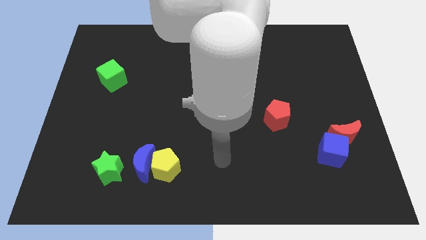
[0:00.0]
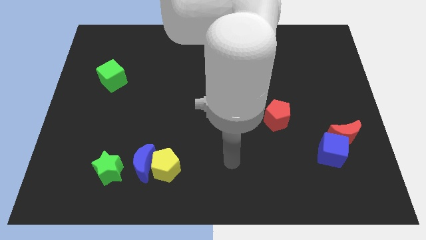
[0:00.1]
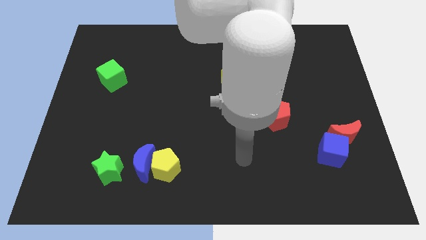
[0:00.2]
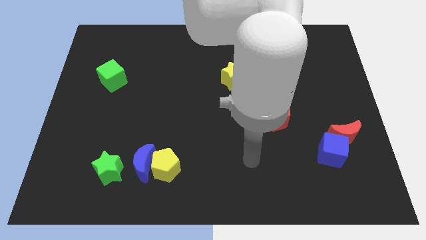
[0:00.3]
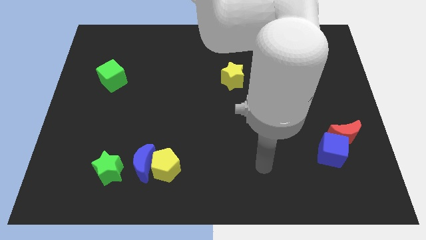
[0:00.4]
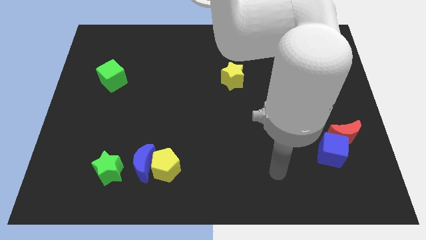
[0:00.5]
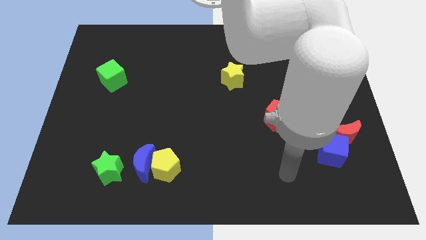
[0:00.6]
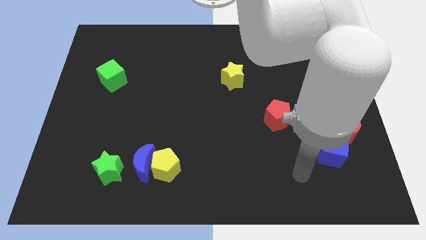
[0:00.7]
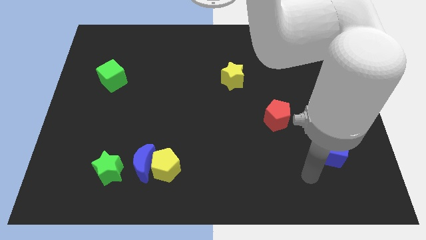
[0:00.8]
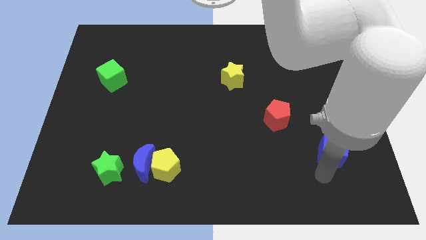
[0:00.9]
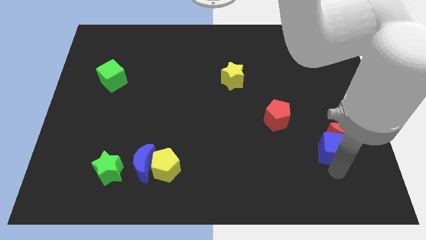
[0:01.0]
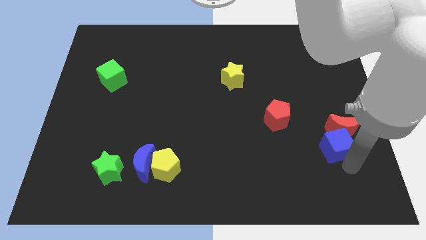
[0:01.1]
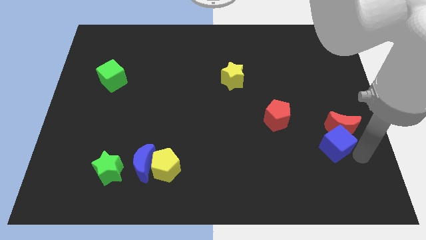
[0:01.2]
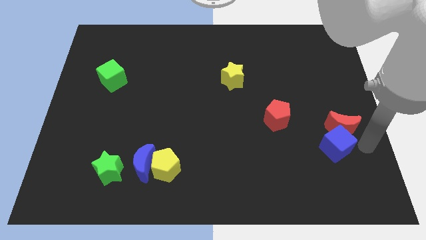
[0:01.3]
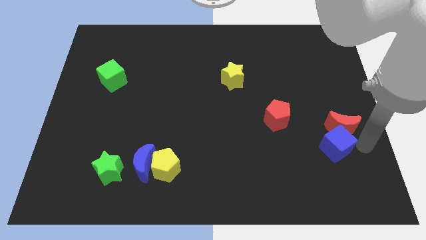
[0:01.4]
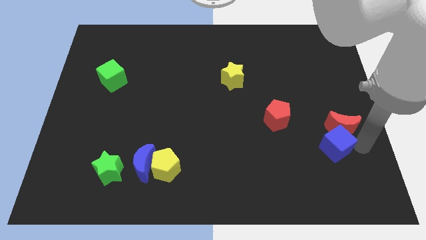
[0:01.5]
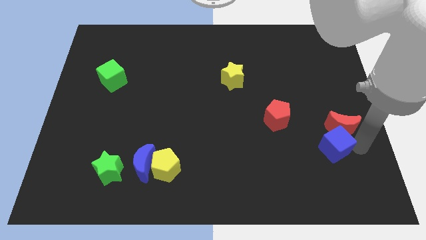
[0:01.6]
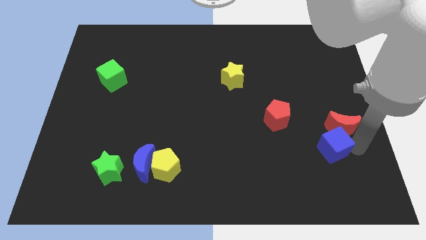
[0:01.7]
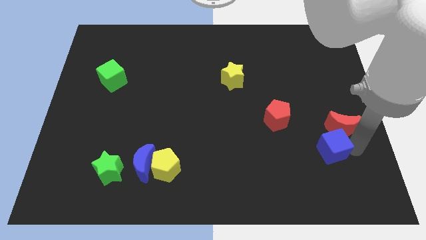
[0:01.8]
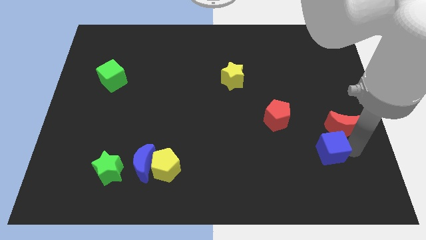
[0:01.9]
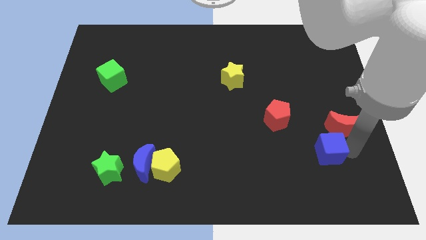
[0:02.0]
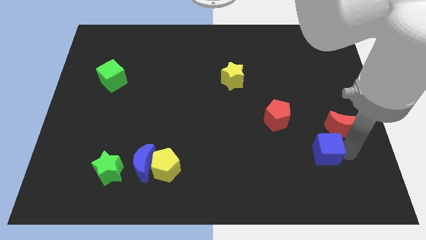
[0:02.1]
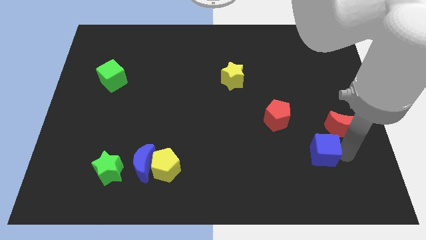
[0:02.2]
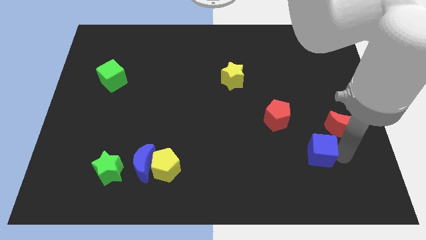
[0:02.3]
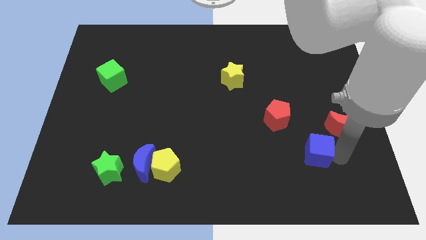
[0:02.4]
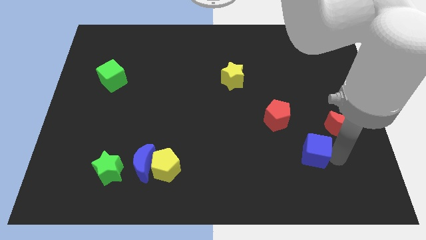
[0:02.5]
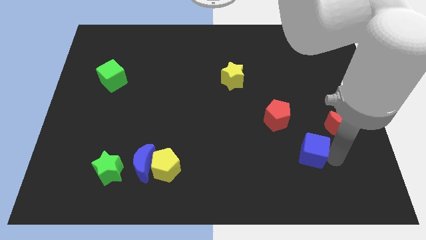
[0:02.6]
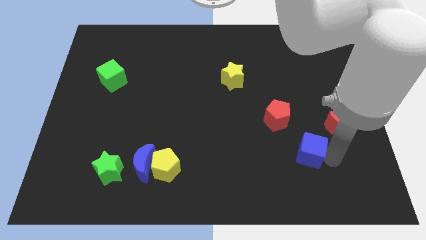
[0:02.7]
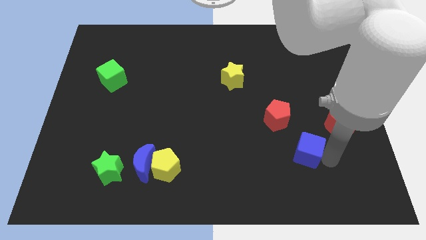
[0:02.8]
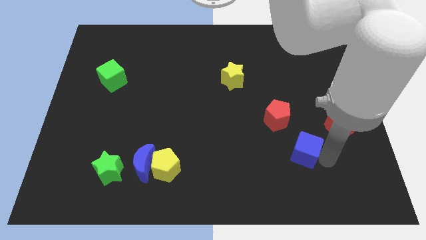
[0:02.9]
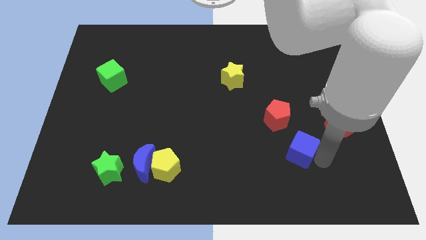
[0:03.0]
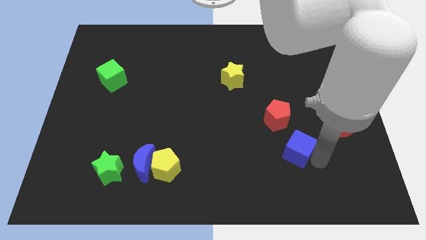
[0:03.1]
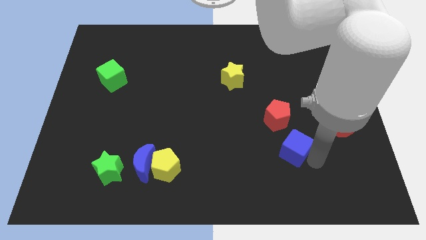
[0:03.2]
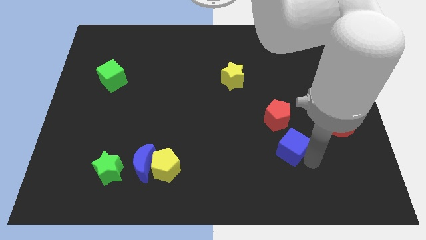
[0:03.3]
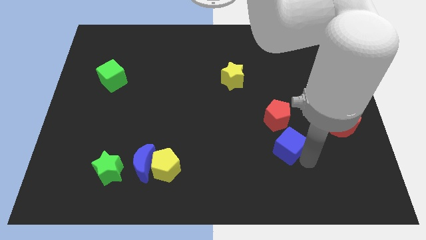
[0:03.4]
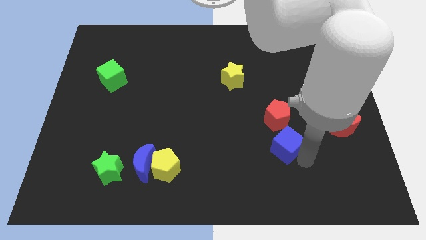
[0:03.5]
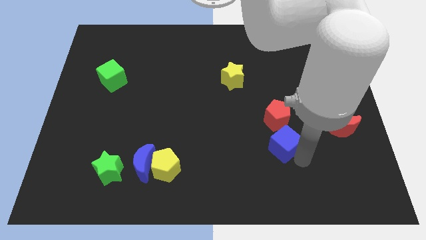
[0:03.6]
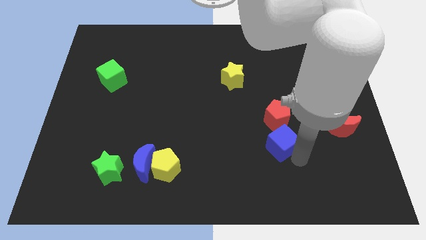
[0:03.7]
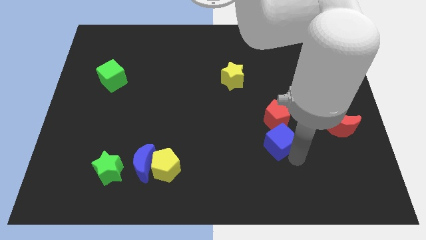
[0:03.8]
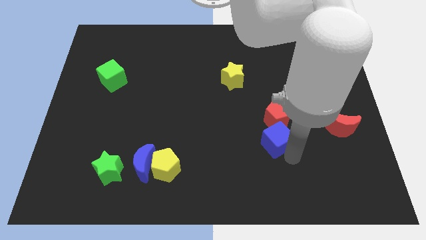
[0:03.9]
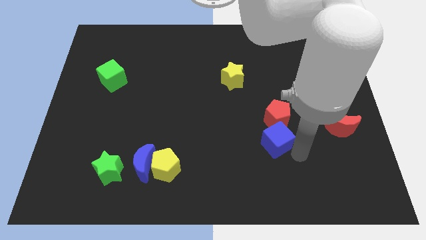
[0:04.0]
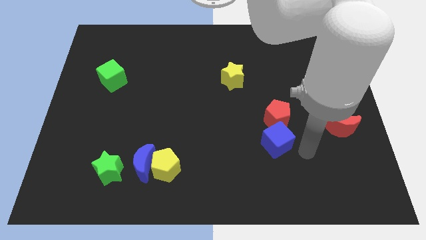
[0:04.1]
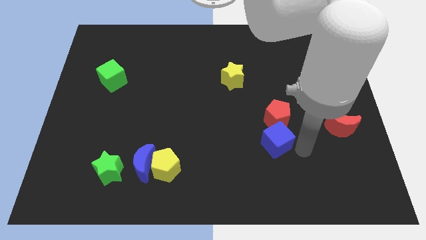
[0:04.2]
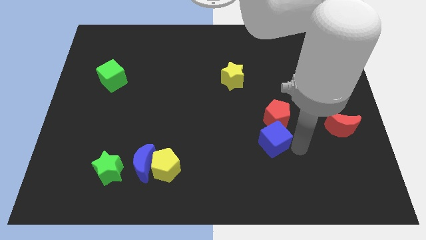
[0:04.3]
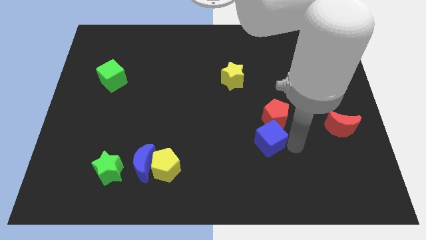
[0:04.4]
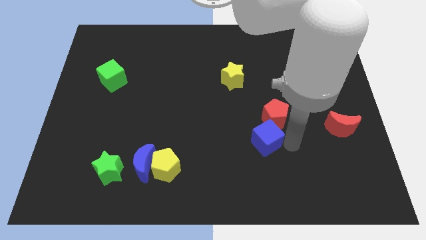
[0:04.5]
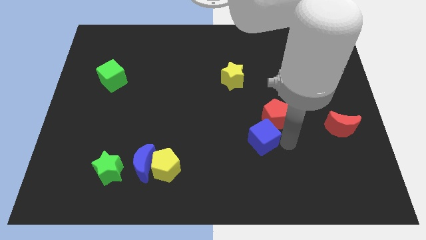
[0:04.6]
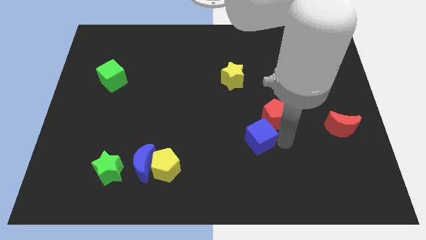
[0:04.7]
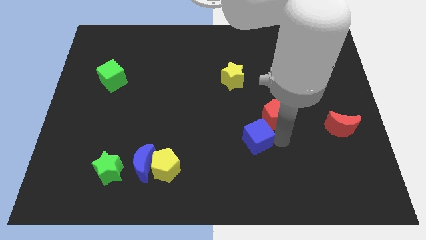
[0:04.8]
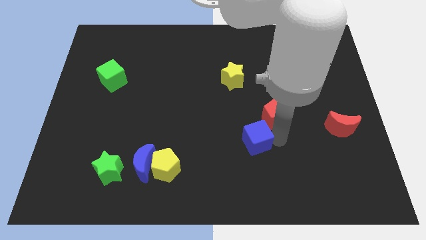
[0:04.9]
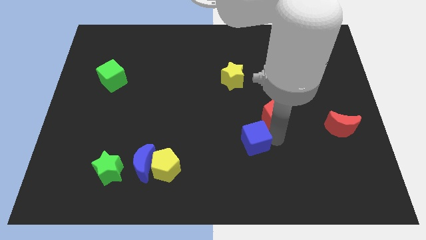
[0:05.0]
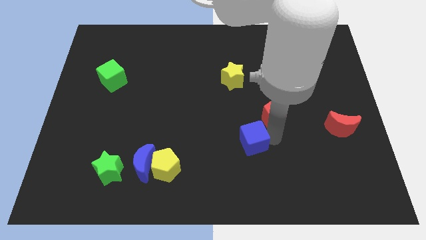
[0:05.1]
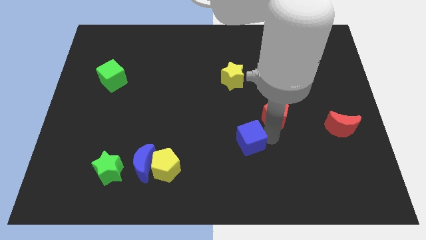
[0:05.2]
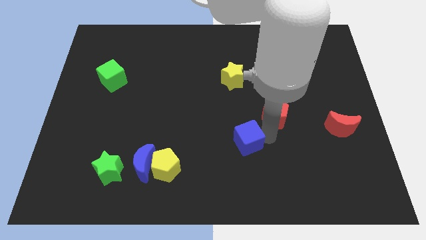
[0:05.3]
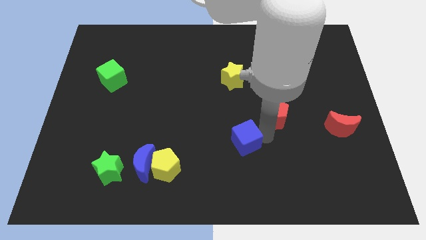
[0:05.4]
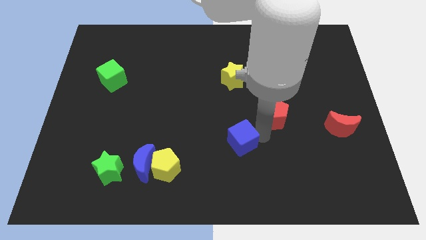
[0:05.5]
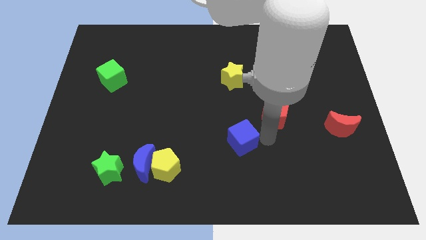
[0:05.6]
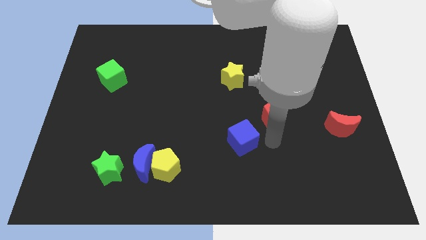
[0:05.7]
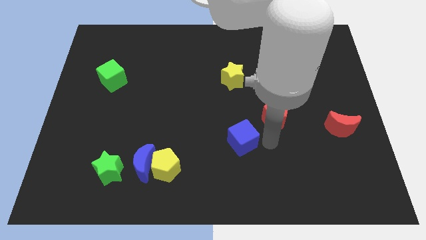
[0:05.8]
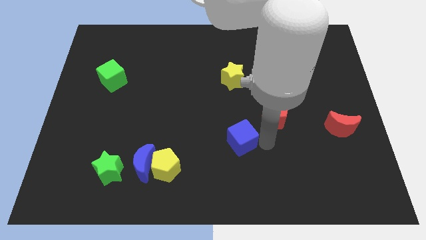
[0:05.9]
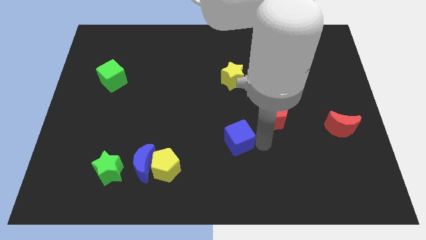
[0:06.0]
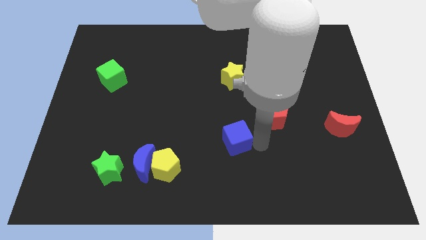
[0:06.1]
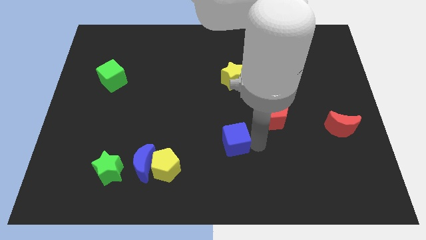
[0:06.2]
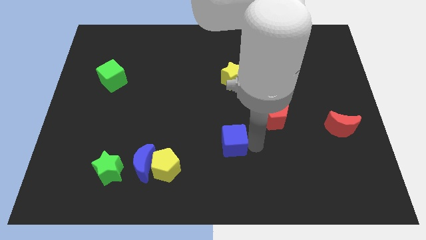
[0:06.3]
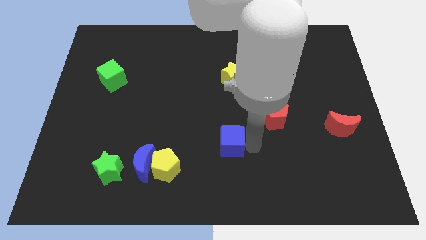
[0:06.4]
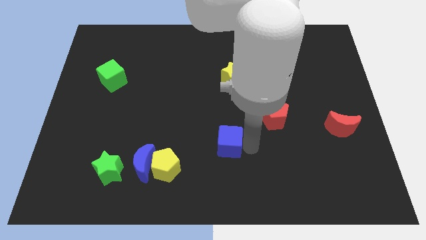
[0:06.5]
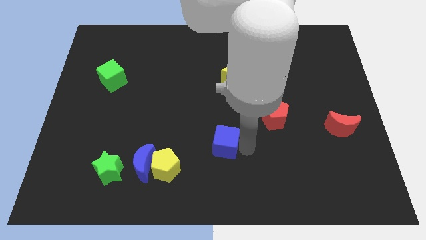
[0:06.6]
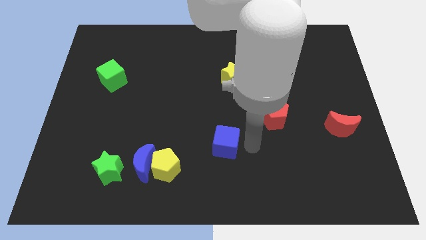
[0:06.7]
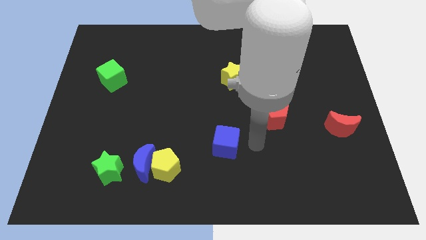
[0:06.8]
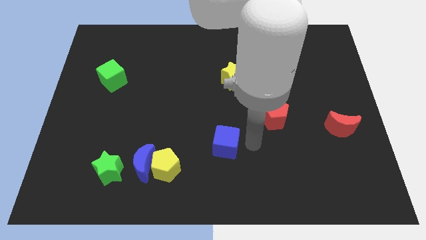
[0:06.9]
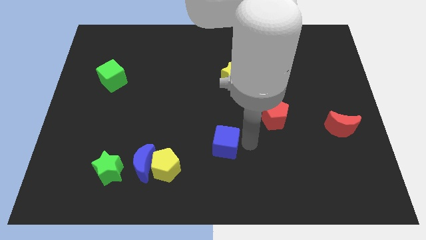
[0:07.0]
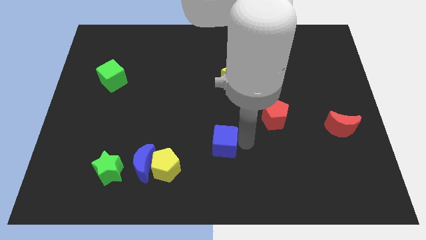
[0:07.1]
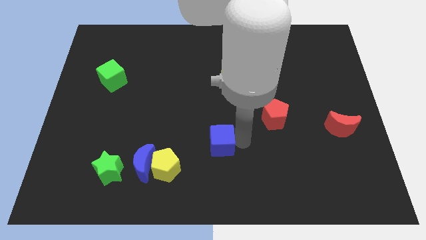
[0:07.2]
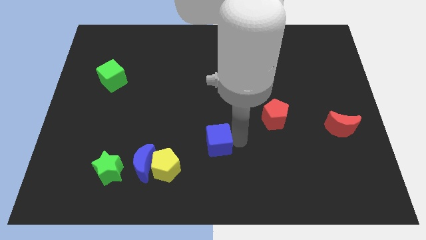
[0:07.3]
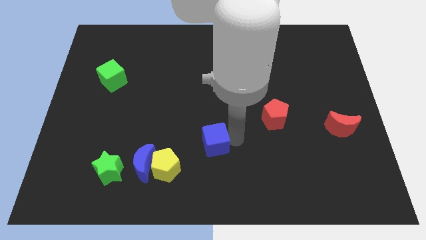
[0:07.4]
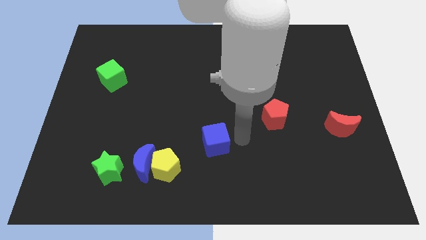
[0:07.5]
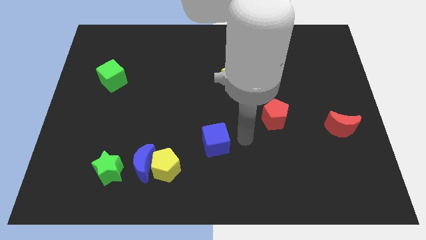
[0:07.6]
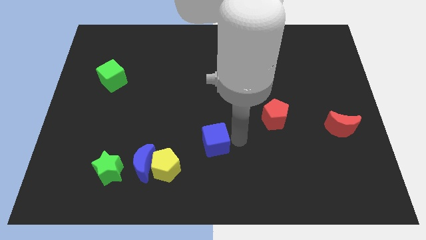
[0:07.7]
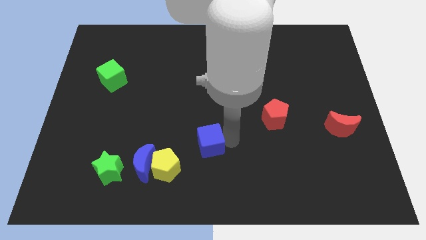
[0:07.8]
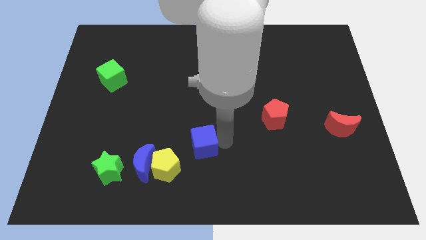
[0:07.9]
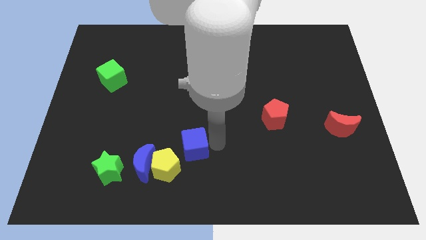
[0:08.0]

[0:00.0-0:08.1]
slide the blue cube to the top right of the blue moon
